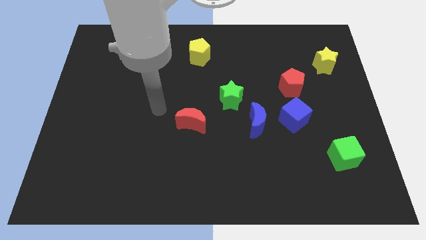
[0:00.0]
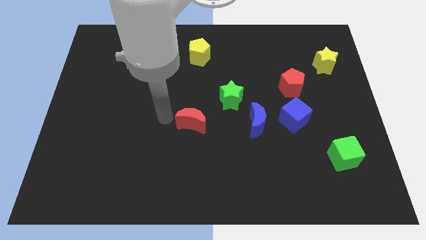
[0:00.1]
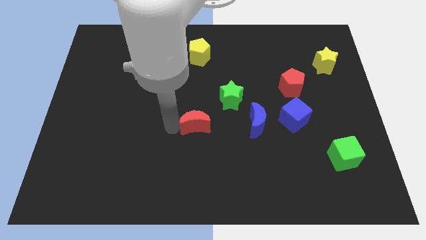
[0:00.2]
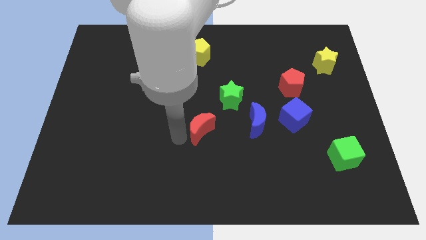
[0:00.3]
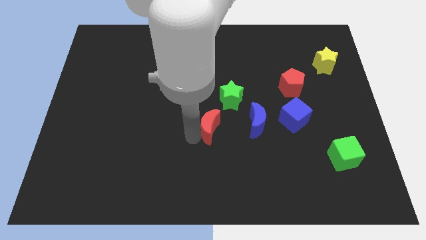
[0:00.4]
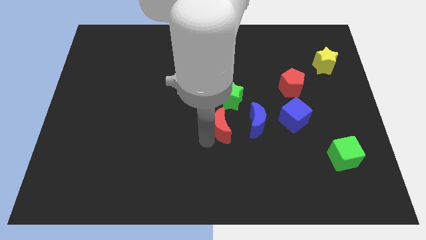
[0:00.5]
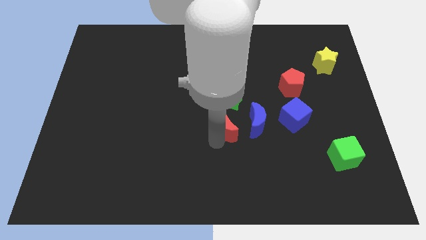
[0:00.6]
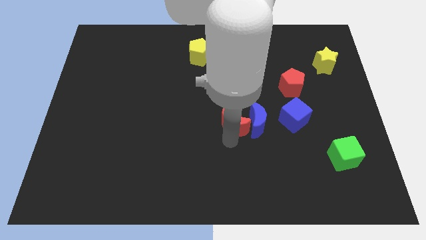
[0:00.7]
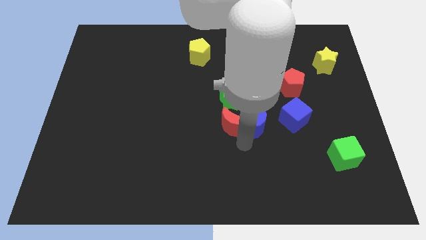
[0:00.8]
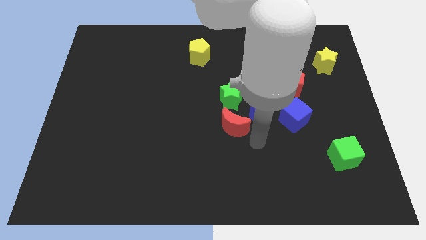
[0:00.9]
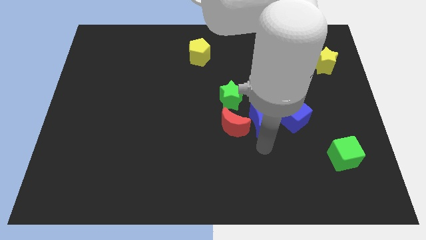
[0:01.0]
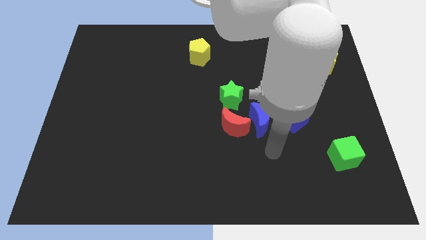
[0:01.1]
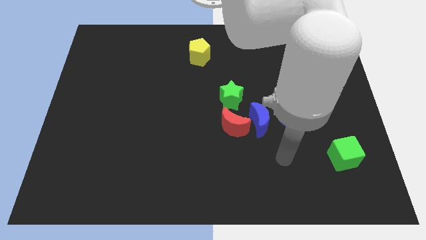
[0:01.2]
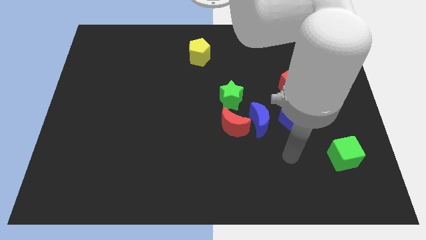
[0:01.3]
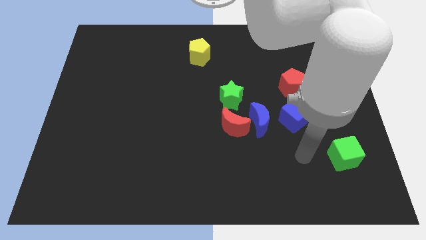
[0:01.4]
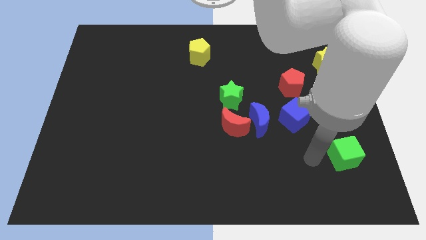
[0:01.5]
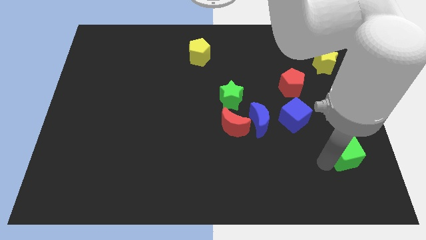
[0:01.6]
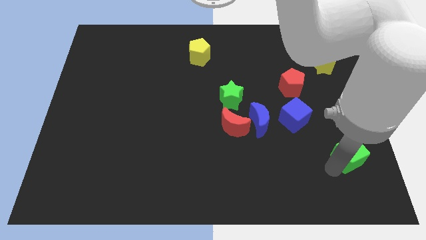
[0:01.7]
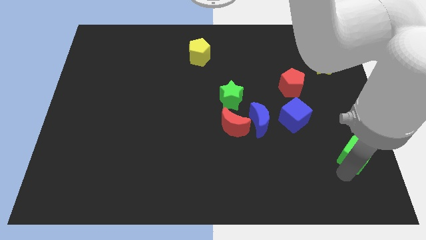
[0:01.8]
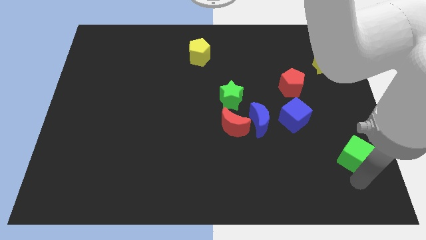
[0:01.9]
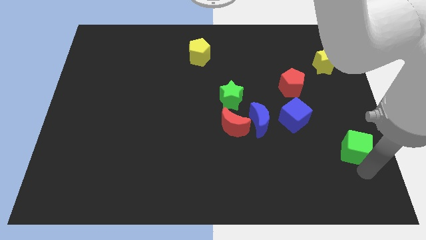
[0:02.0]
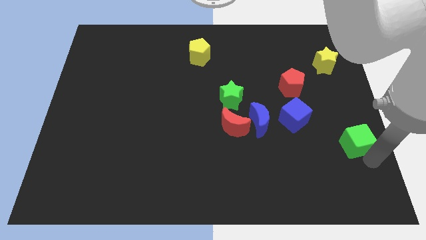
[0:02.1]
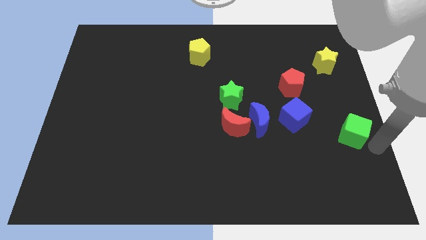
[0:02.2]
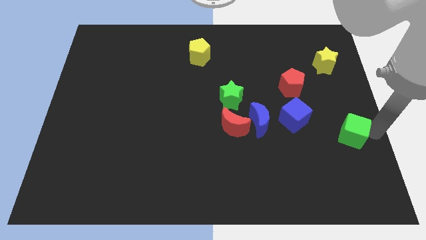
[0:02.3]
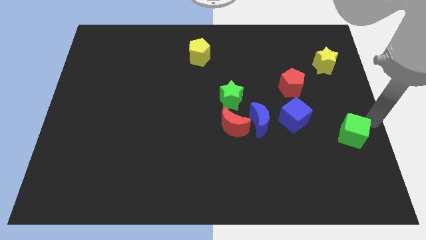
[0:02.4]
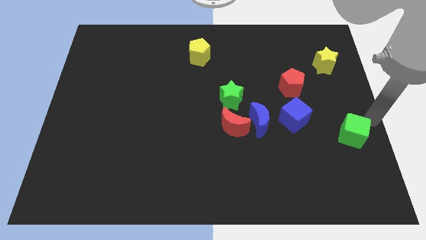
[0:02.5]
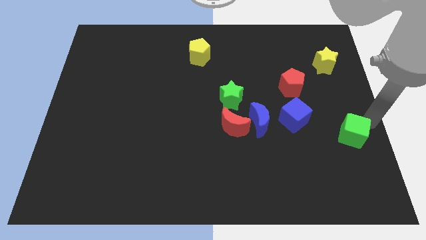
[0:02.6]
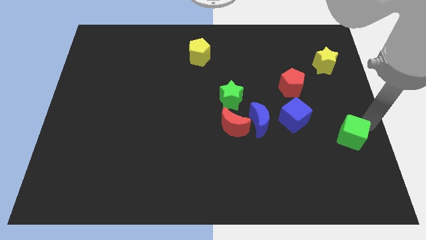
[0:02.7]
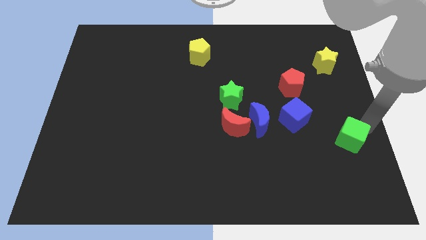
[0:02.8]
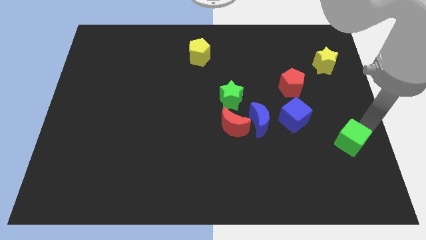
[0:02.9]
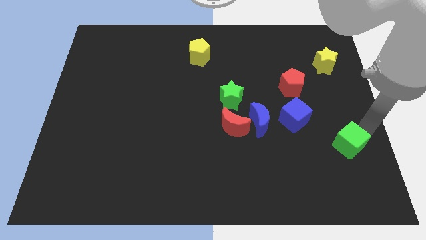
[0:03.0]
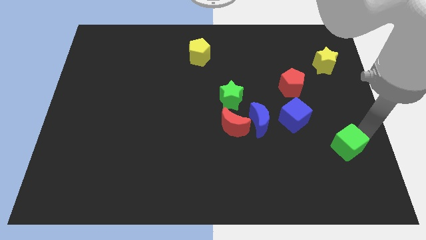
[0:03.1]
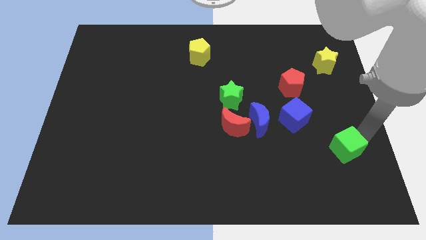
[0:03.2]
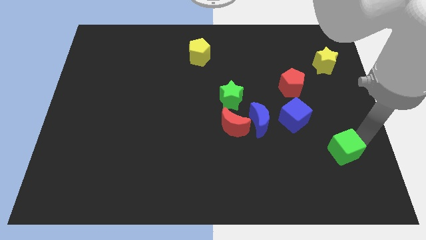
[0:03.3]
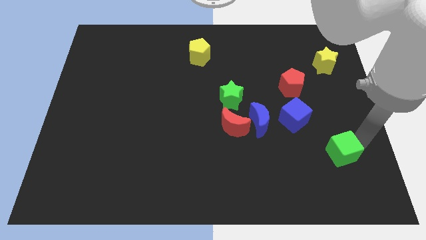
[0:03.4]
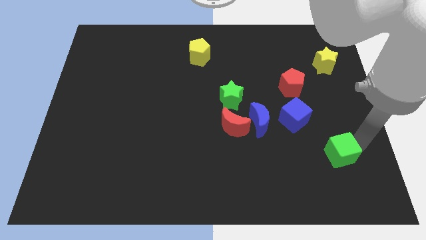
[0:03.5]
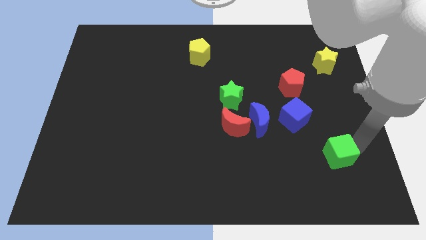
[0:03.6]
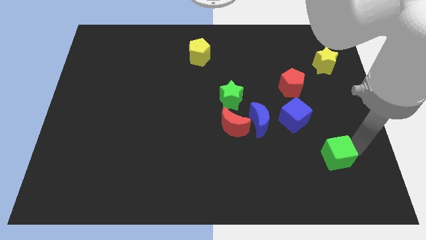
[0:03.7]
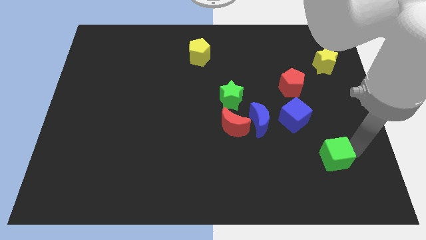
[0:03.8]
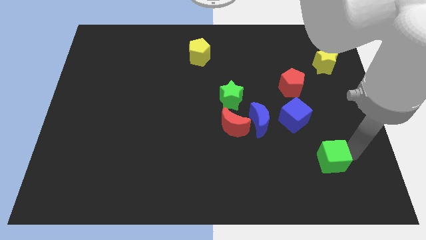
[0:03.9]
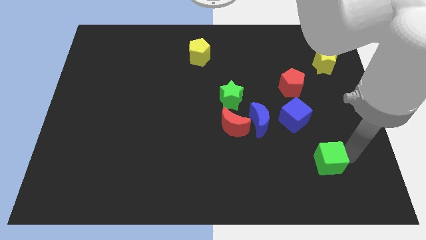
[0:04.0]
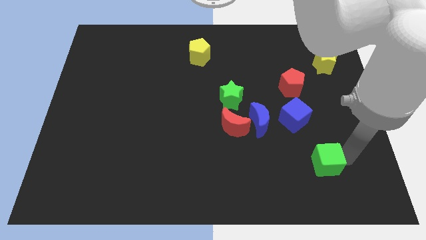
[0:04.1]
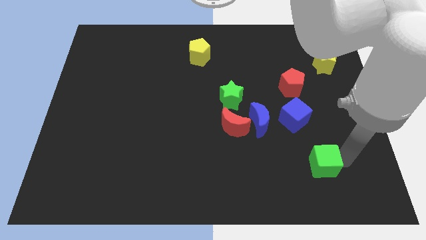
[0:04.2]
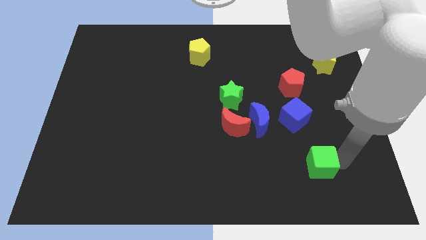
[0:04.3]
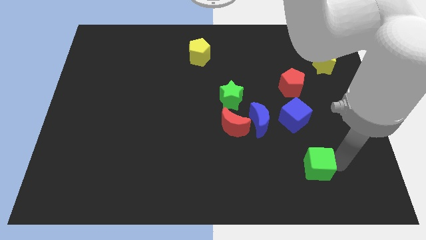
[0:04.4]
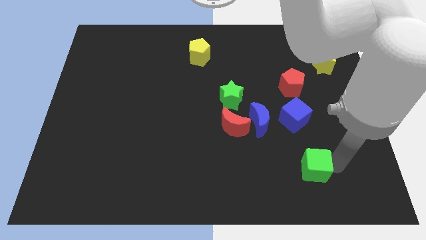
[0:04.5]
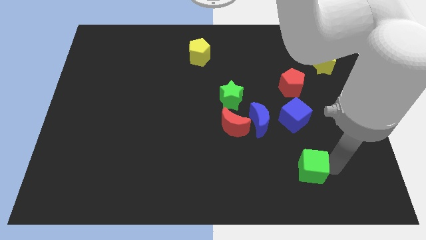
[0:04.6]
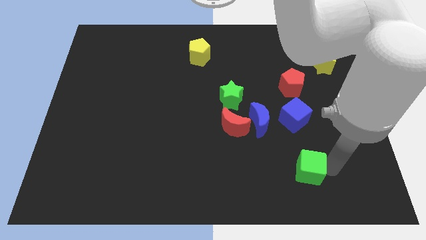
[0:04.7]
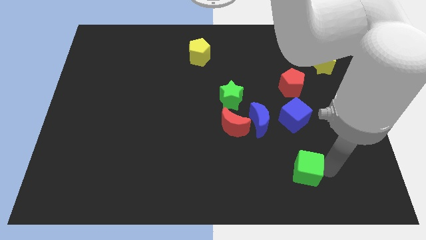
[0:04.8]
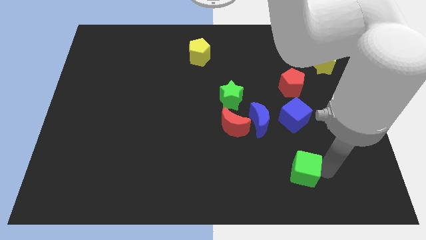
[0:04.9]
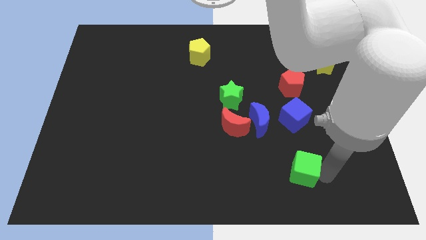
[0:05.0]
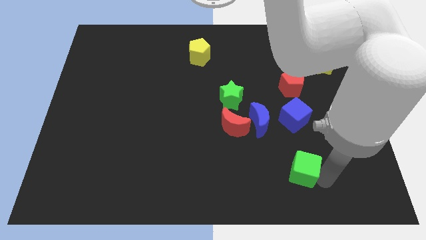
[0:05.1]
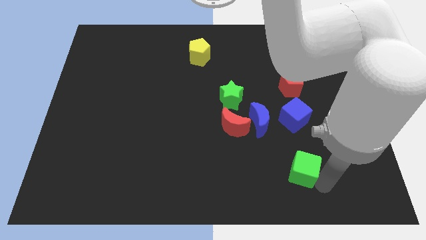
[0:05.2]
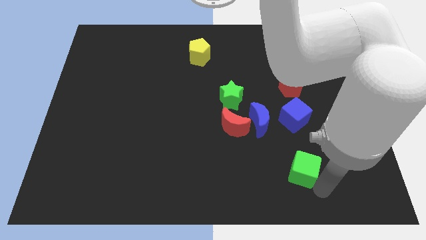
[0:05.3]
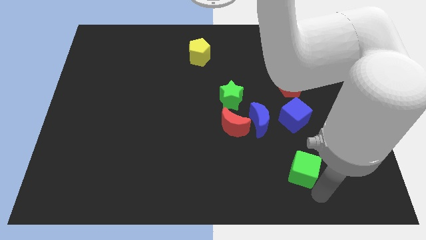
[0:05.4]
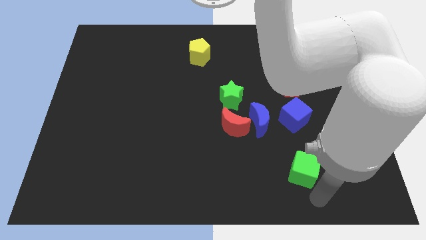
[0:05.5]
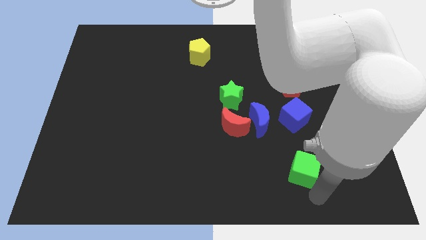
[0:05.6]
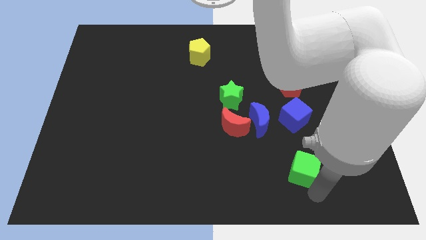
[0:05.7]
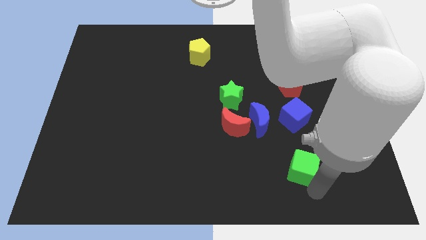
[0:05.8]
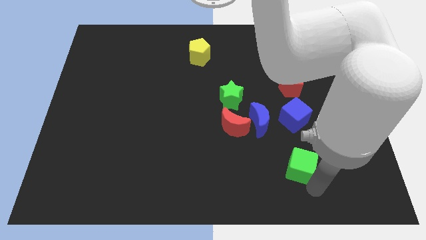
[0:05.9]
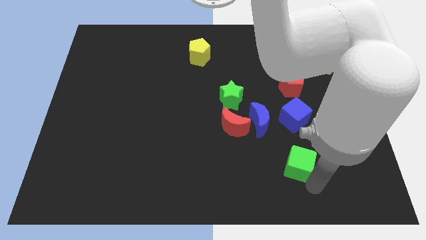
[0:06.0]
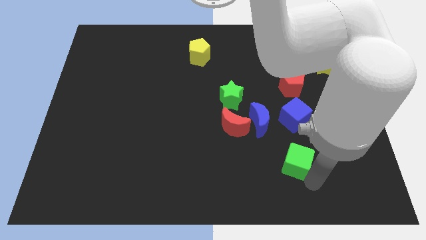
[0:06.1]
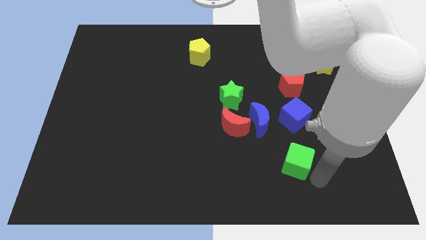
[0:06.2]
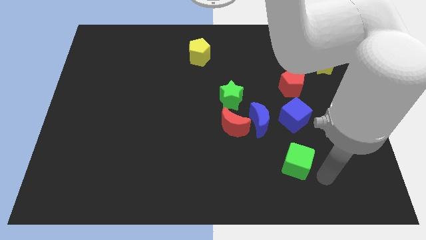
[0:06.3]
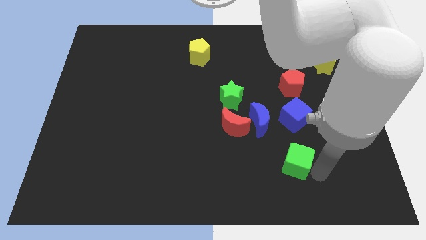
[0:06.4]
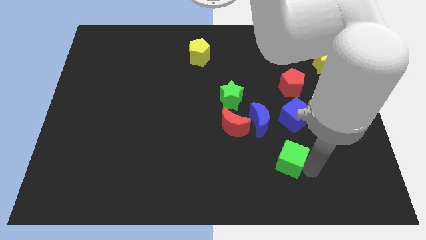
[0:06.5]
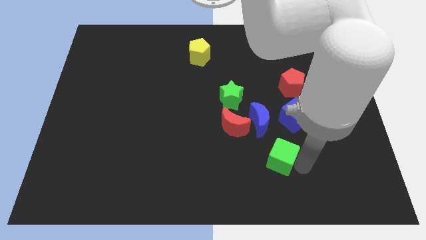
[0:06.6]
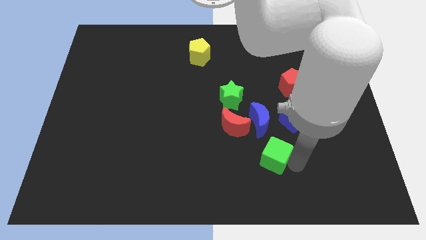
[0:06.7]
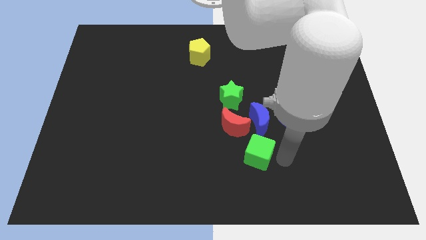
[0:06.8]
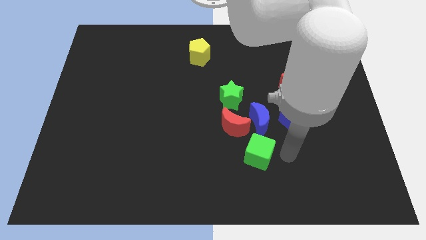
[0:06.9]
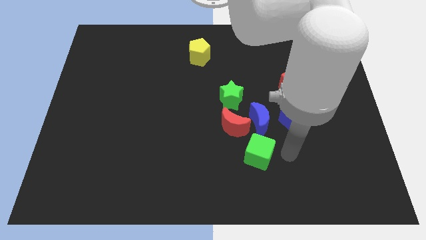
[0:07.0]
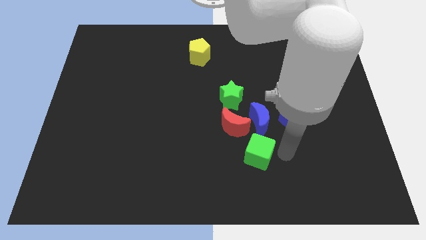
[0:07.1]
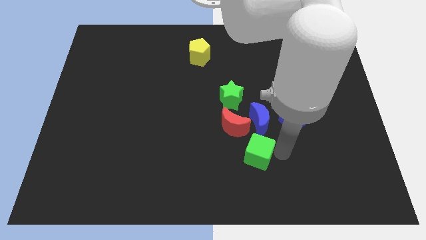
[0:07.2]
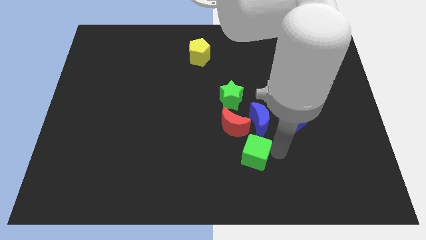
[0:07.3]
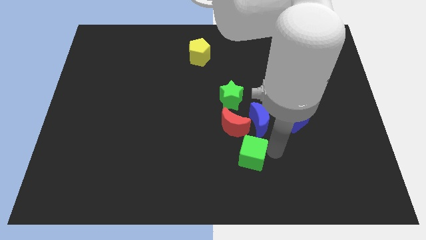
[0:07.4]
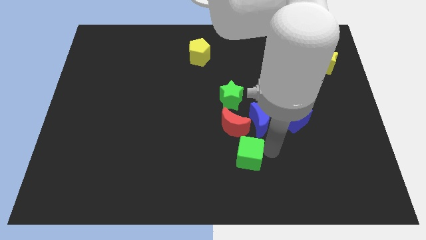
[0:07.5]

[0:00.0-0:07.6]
slide the green cube left

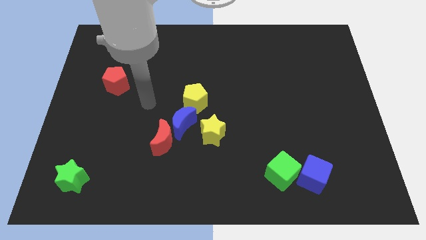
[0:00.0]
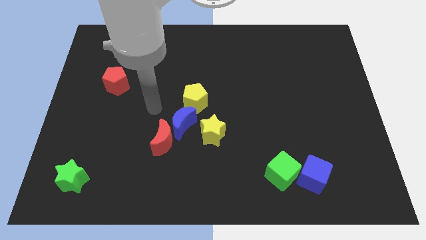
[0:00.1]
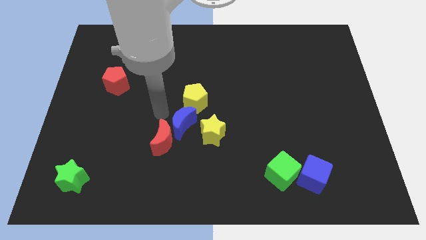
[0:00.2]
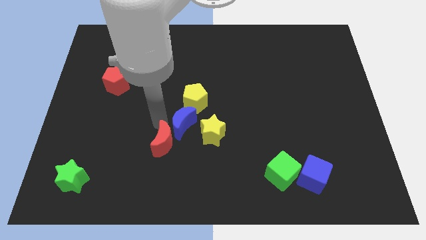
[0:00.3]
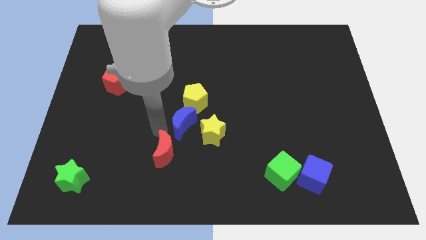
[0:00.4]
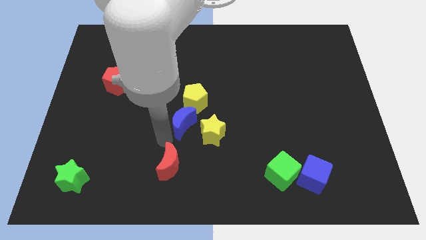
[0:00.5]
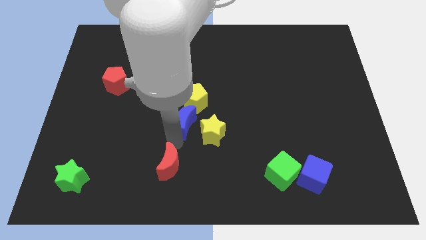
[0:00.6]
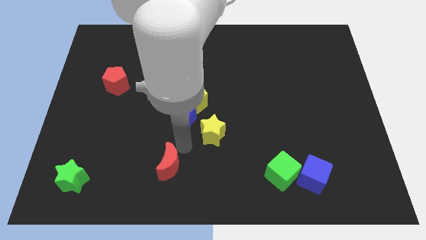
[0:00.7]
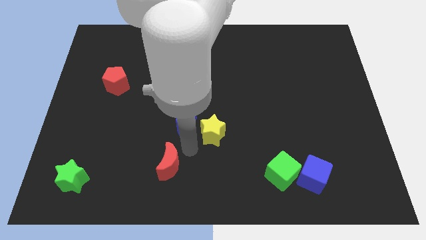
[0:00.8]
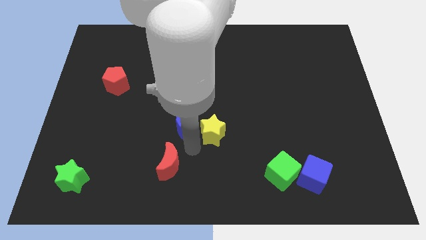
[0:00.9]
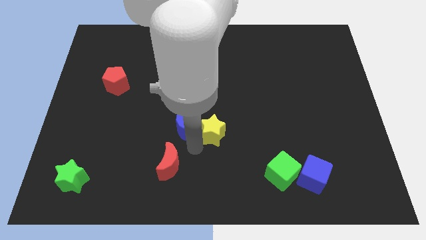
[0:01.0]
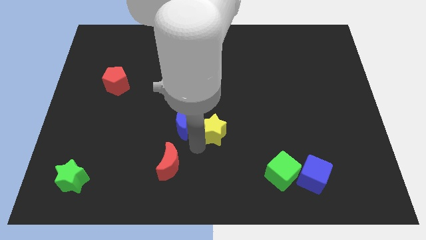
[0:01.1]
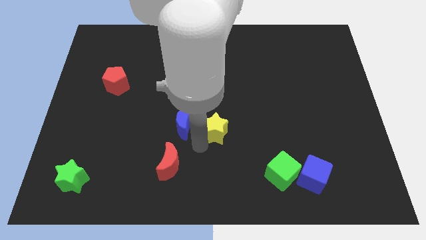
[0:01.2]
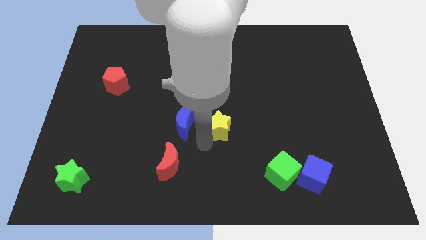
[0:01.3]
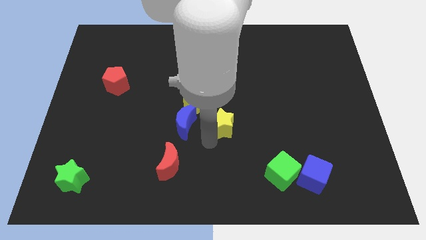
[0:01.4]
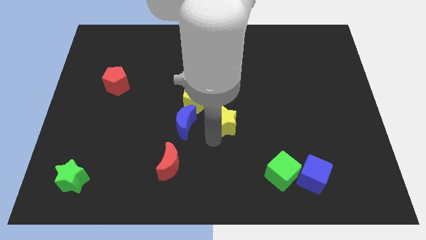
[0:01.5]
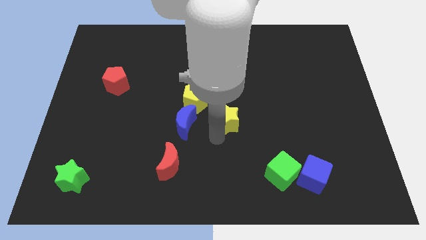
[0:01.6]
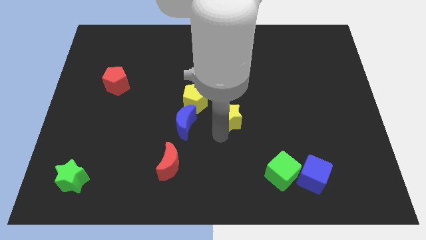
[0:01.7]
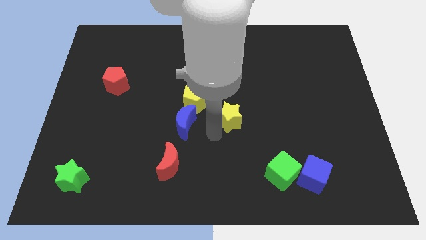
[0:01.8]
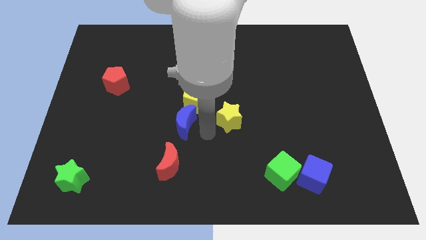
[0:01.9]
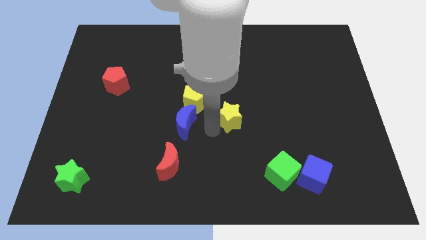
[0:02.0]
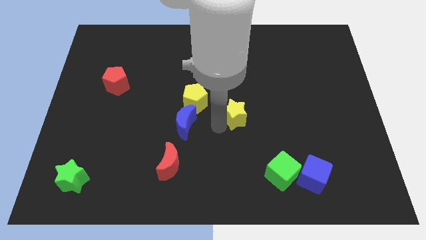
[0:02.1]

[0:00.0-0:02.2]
push the yellow star up and to the right a bit
